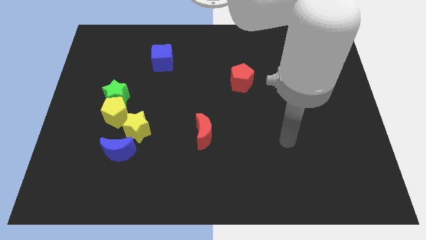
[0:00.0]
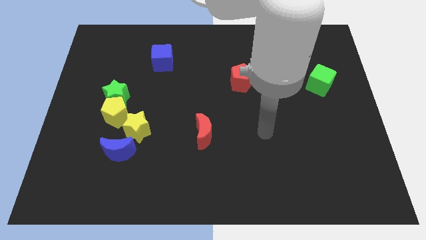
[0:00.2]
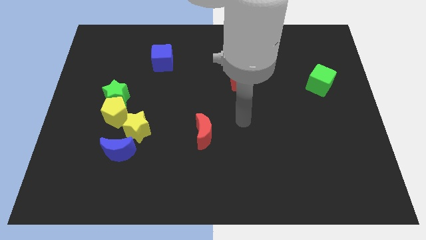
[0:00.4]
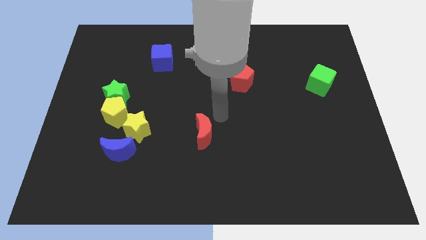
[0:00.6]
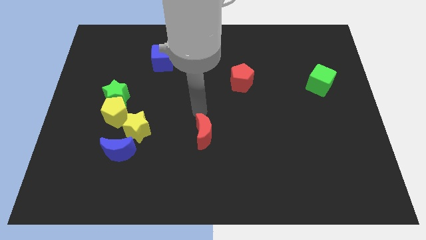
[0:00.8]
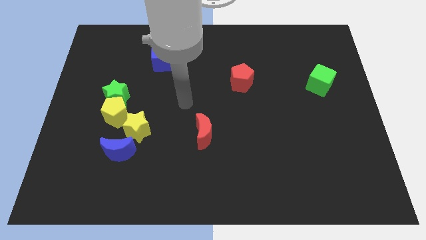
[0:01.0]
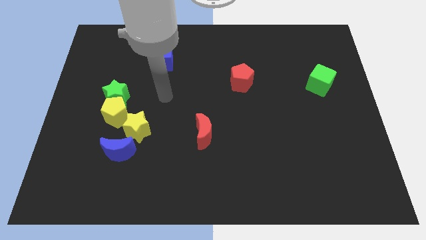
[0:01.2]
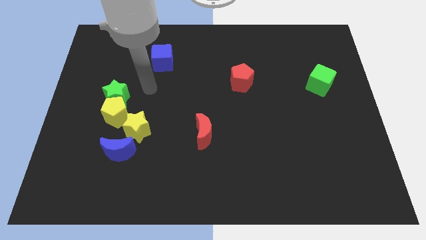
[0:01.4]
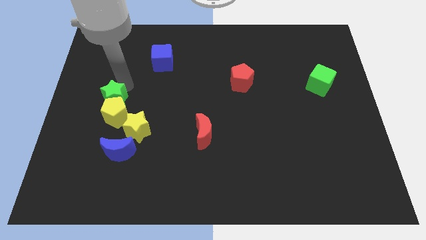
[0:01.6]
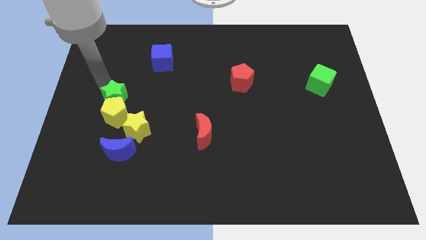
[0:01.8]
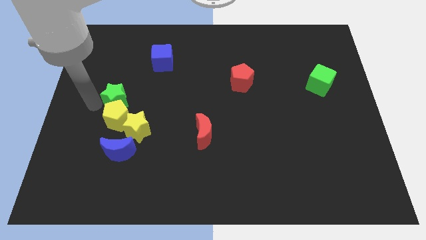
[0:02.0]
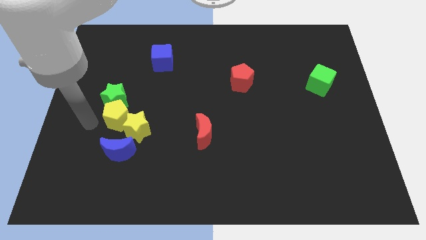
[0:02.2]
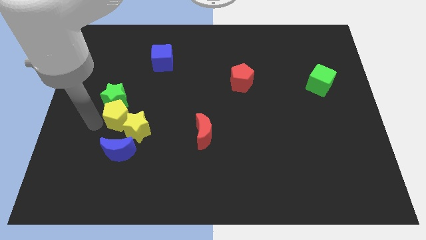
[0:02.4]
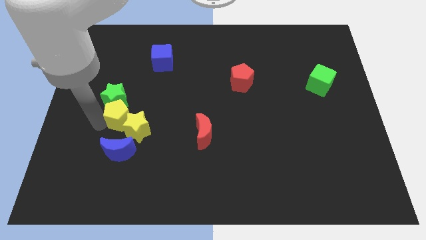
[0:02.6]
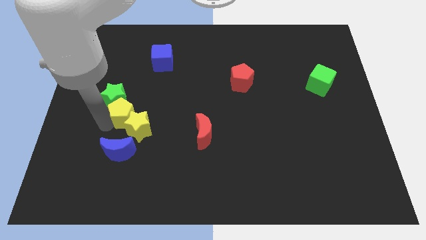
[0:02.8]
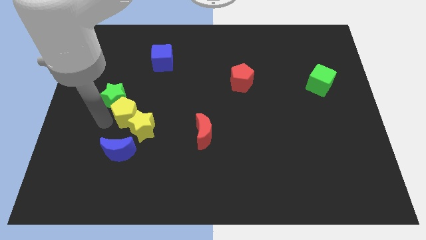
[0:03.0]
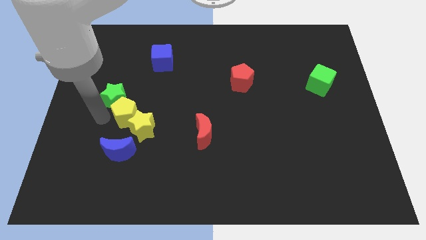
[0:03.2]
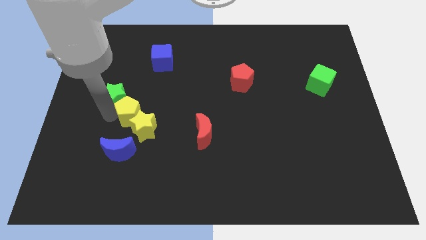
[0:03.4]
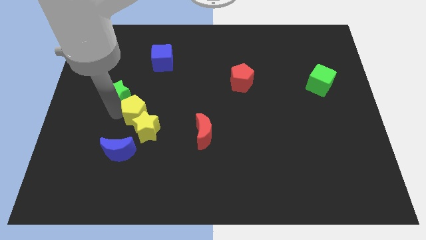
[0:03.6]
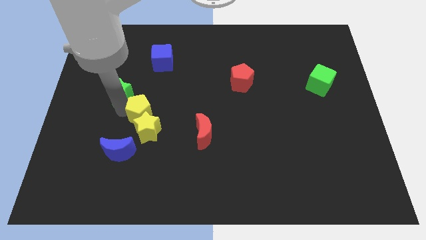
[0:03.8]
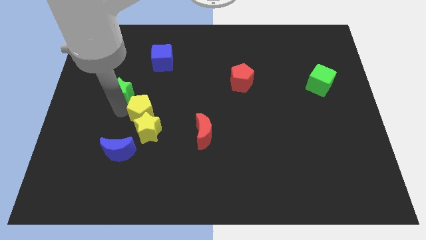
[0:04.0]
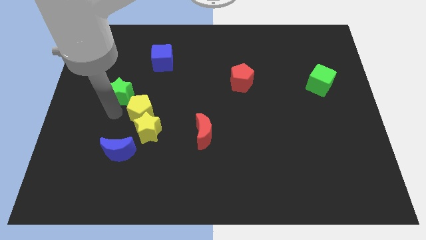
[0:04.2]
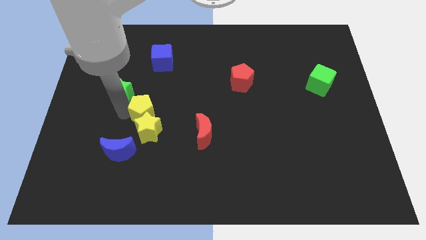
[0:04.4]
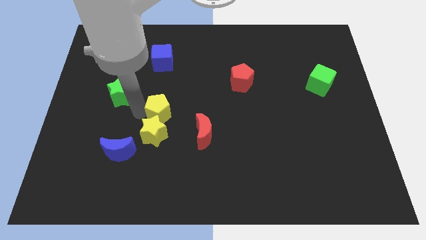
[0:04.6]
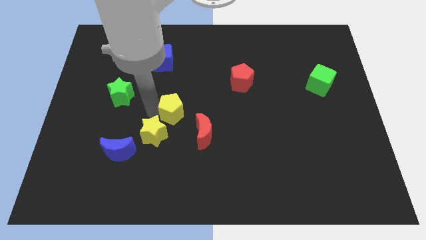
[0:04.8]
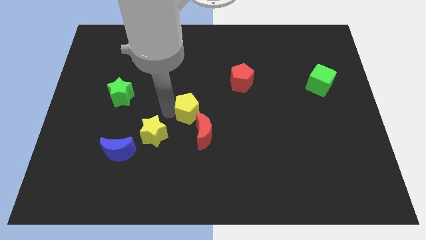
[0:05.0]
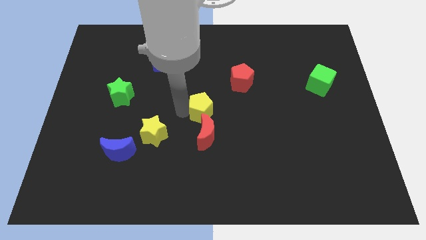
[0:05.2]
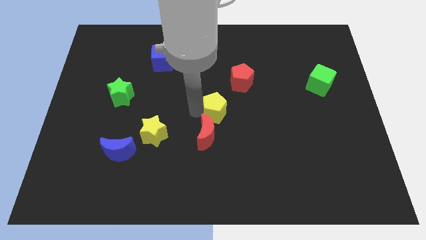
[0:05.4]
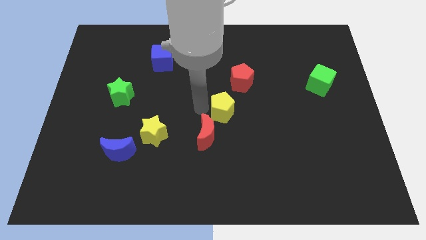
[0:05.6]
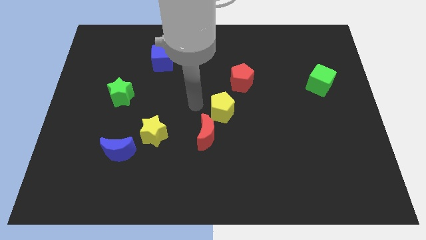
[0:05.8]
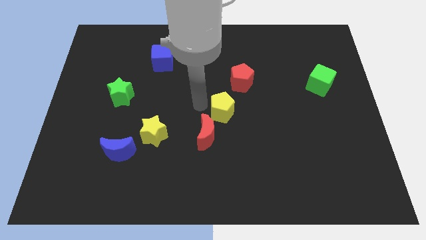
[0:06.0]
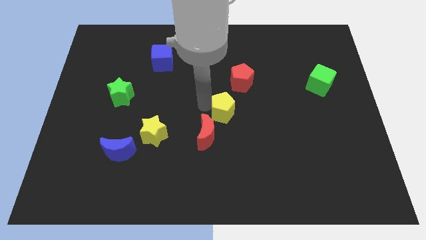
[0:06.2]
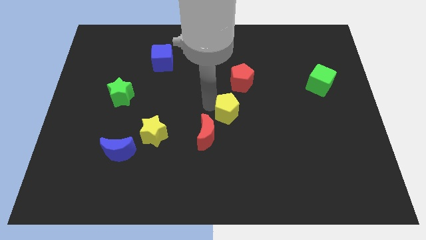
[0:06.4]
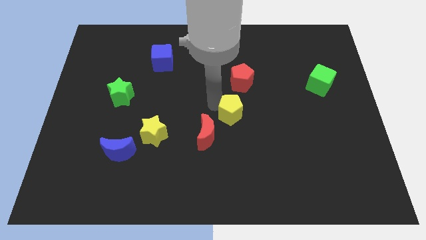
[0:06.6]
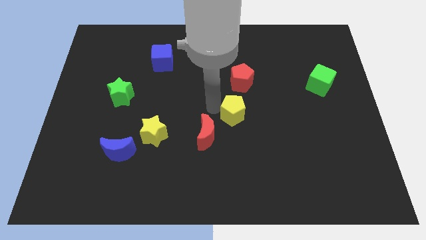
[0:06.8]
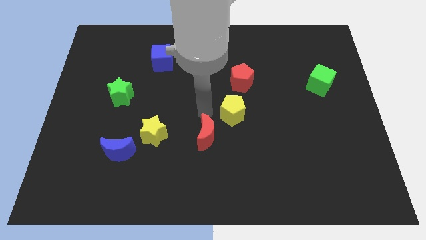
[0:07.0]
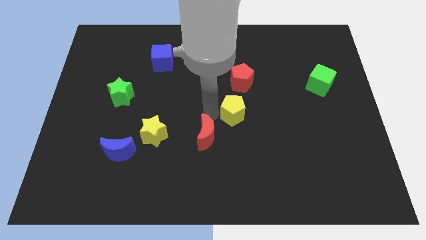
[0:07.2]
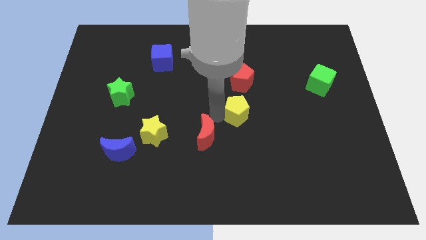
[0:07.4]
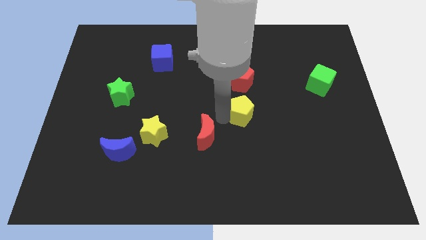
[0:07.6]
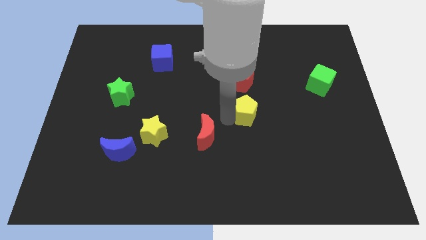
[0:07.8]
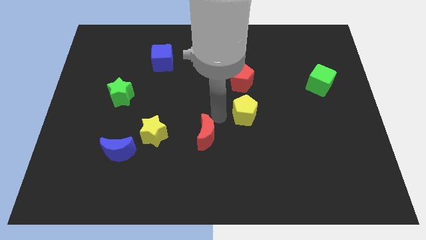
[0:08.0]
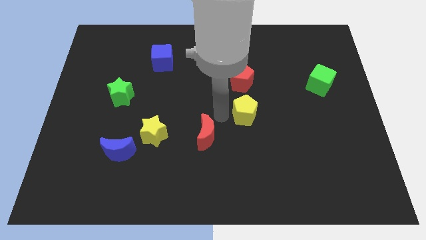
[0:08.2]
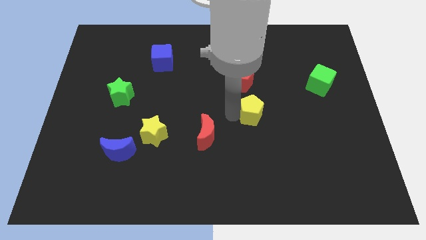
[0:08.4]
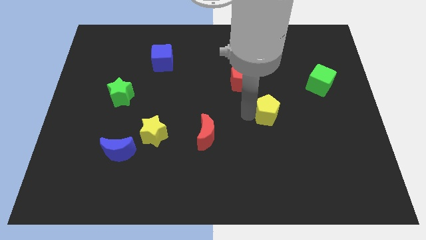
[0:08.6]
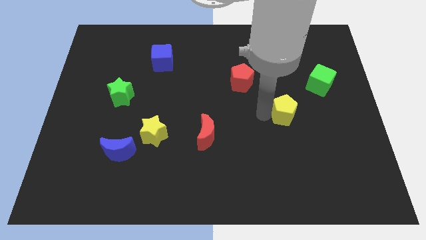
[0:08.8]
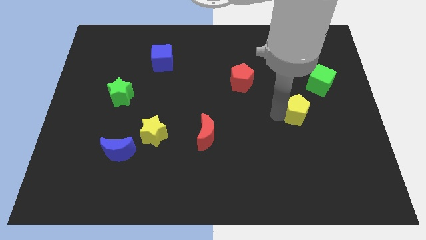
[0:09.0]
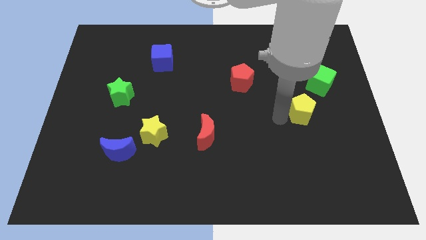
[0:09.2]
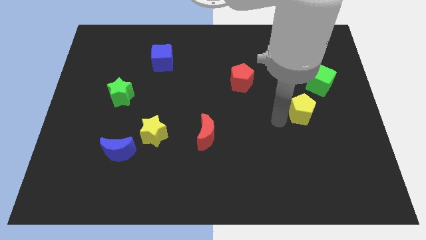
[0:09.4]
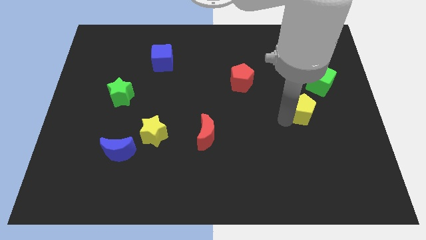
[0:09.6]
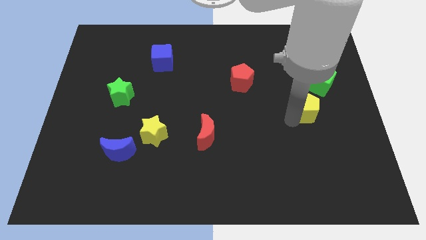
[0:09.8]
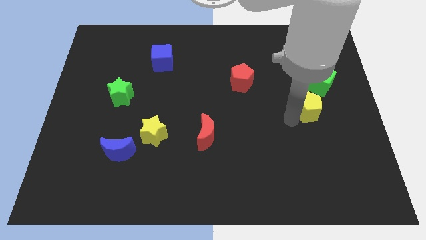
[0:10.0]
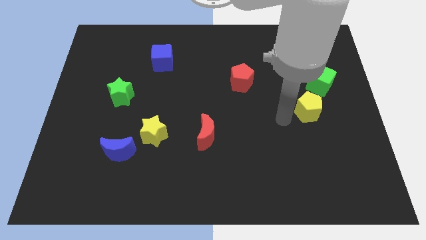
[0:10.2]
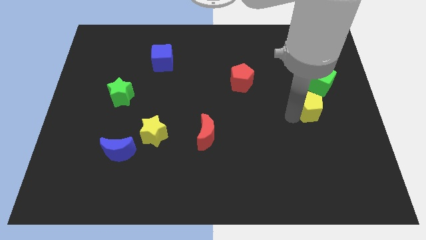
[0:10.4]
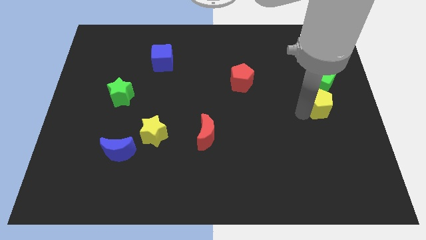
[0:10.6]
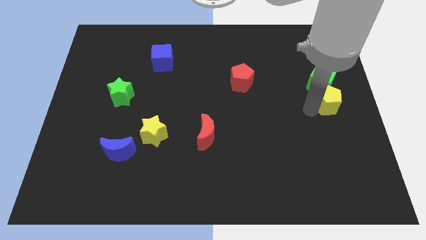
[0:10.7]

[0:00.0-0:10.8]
move the yellow pentagon to the right side
